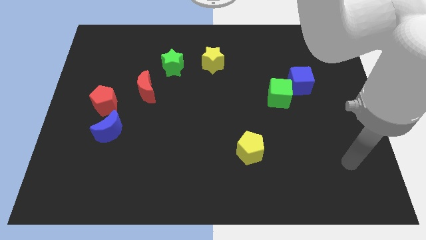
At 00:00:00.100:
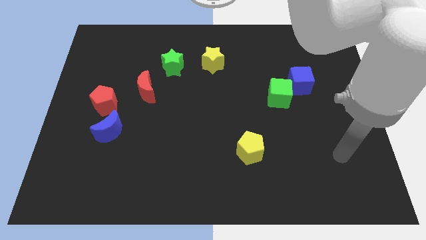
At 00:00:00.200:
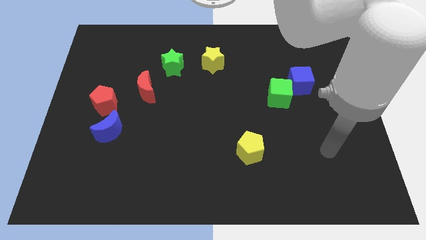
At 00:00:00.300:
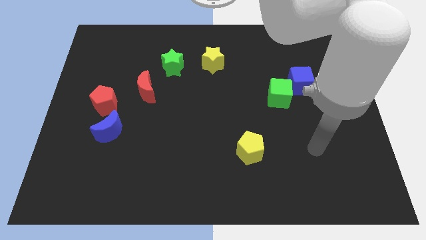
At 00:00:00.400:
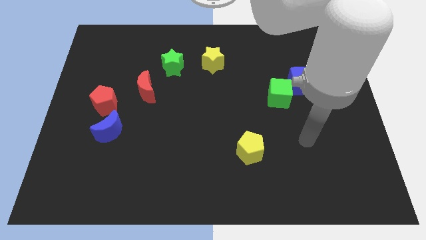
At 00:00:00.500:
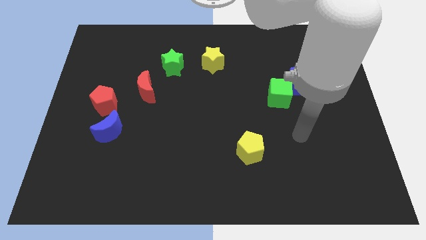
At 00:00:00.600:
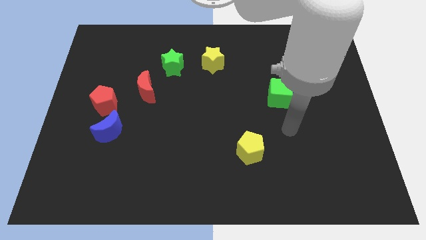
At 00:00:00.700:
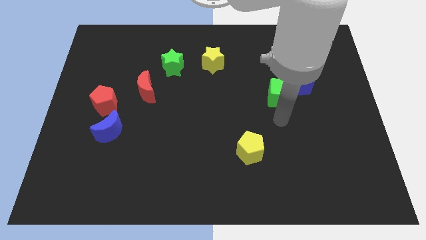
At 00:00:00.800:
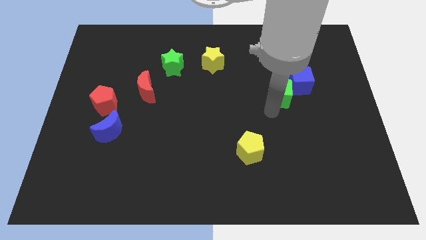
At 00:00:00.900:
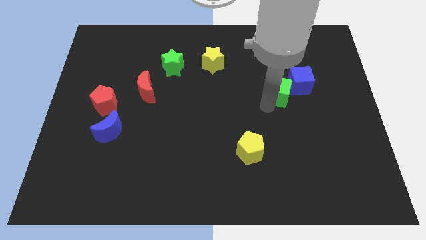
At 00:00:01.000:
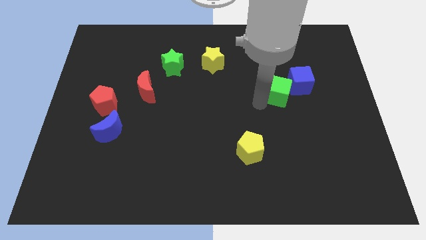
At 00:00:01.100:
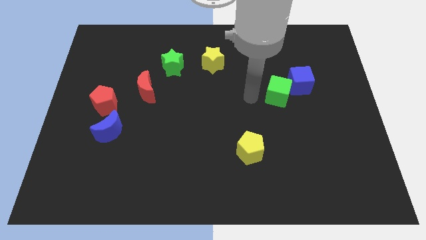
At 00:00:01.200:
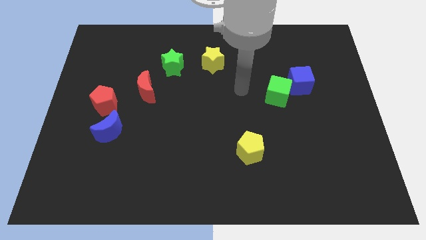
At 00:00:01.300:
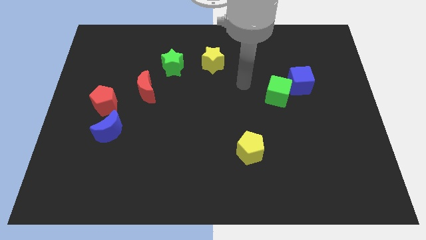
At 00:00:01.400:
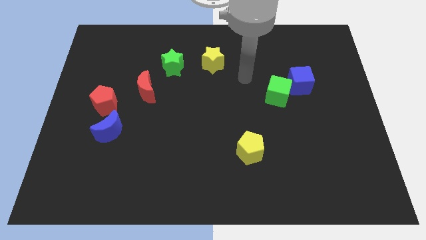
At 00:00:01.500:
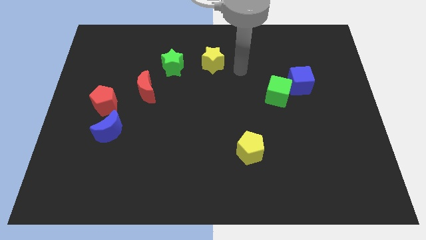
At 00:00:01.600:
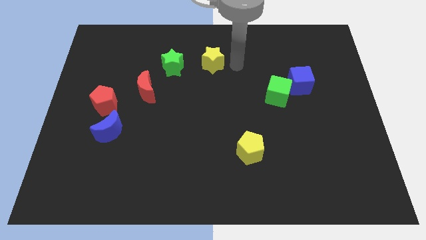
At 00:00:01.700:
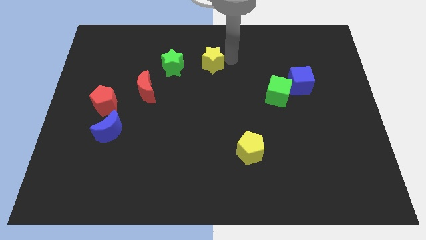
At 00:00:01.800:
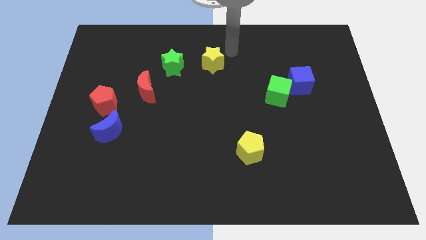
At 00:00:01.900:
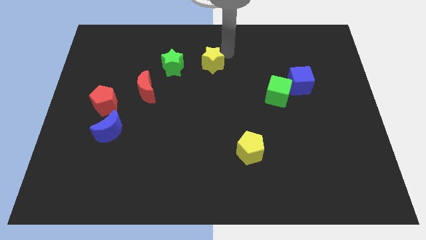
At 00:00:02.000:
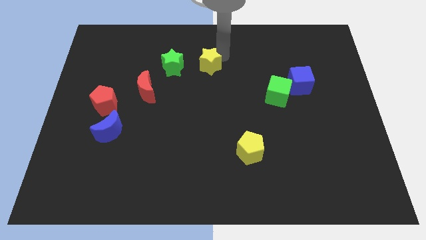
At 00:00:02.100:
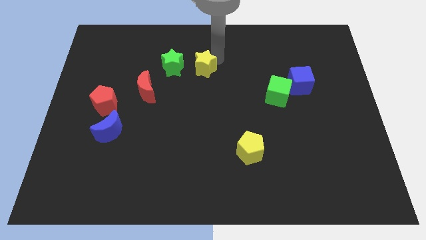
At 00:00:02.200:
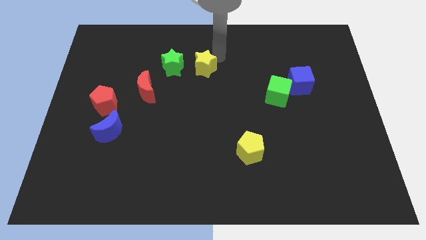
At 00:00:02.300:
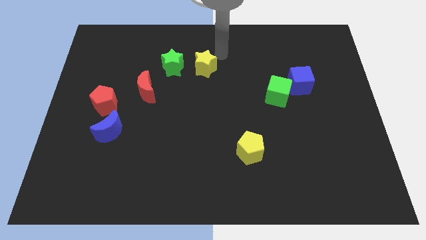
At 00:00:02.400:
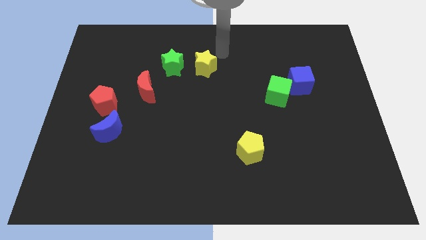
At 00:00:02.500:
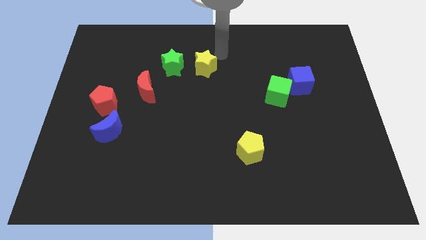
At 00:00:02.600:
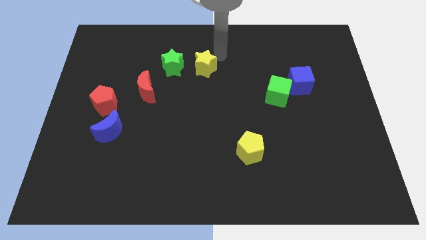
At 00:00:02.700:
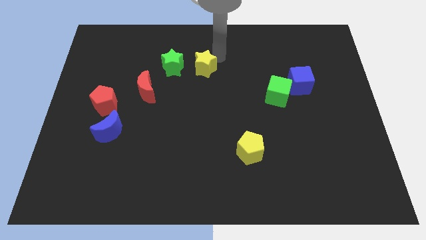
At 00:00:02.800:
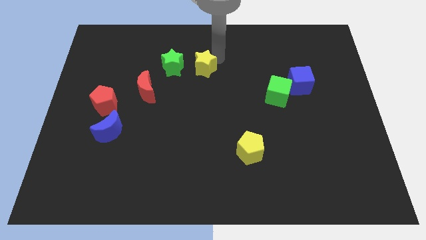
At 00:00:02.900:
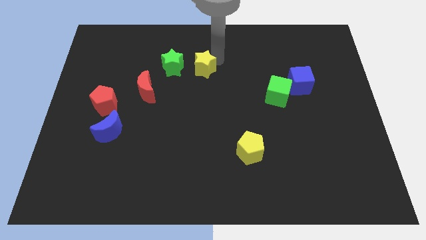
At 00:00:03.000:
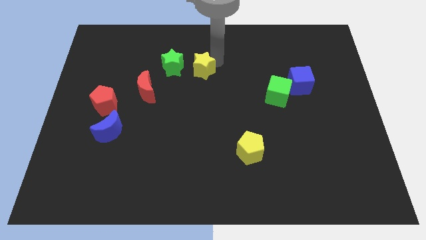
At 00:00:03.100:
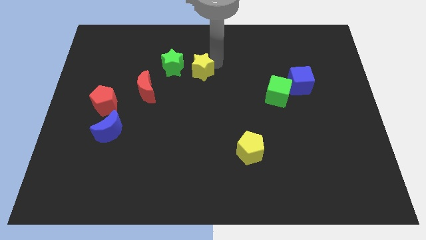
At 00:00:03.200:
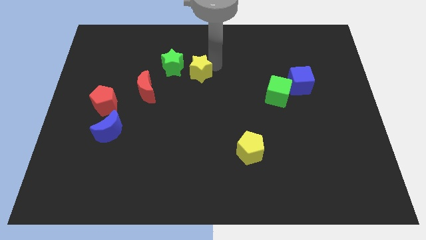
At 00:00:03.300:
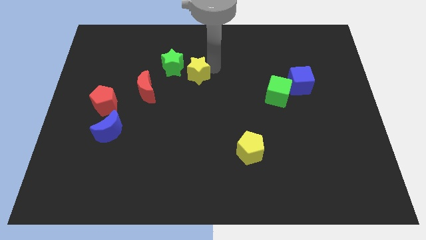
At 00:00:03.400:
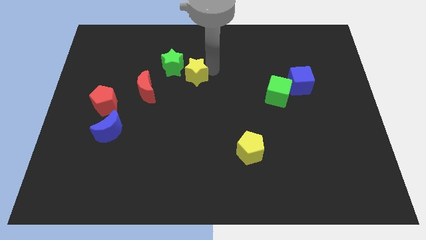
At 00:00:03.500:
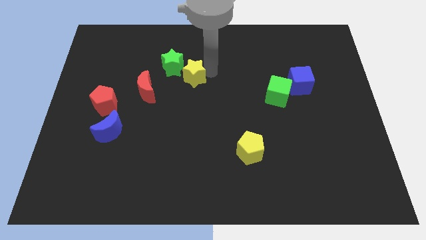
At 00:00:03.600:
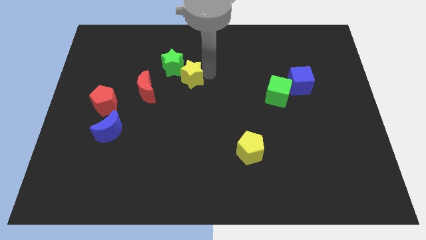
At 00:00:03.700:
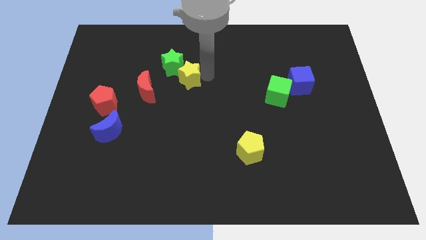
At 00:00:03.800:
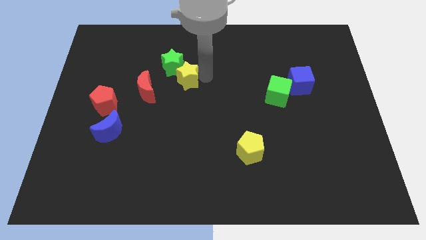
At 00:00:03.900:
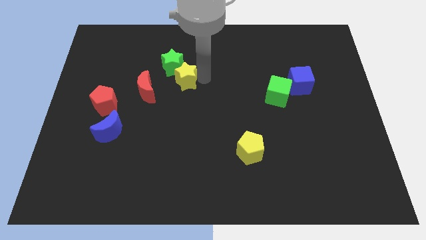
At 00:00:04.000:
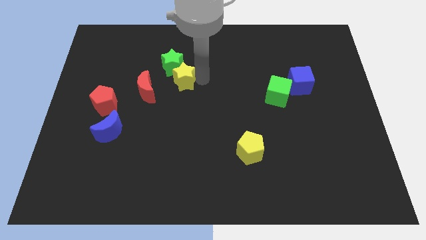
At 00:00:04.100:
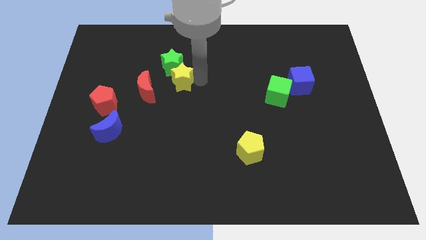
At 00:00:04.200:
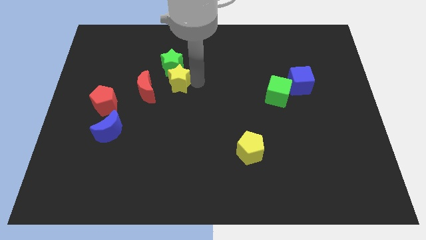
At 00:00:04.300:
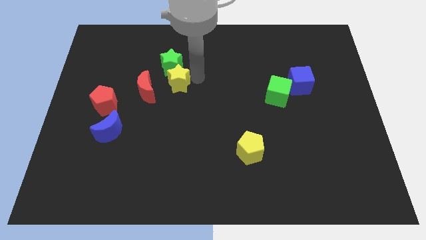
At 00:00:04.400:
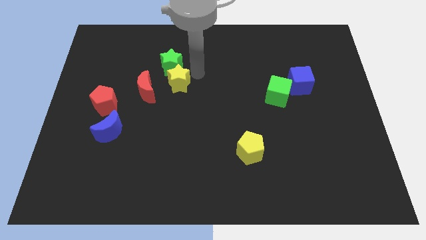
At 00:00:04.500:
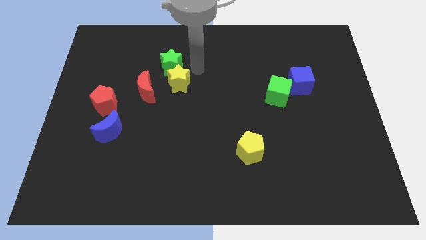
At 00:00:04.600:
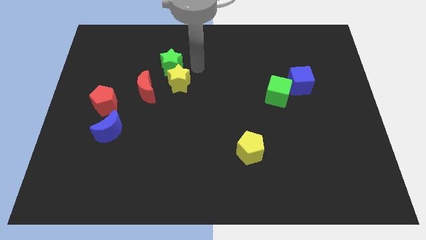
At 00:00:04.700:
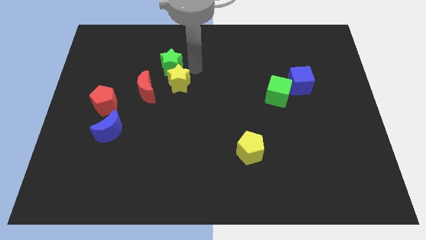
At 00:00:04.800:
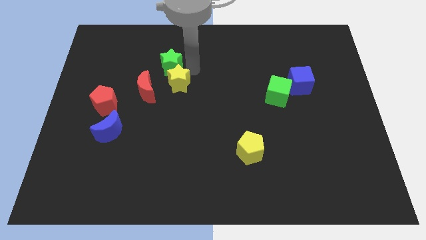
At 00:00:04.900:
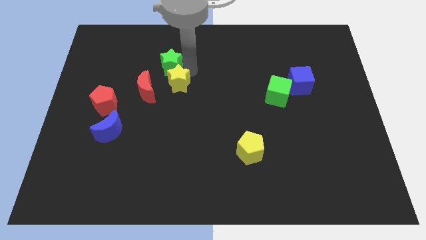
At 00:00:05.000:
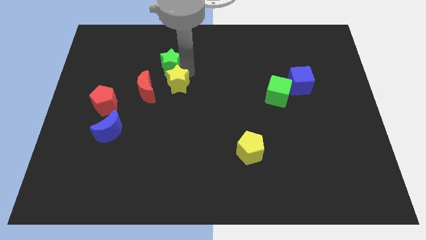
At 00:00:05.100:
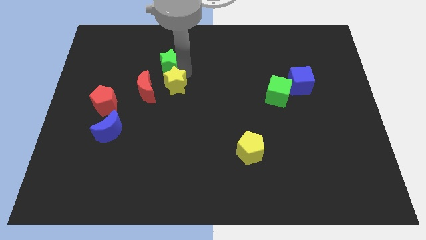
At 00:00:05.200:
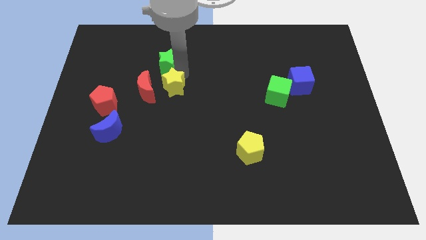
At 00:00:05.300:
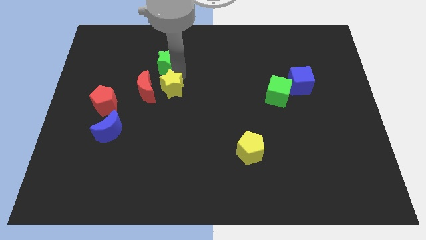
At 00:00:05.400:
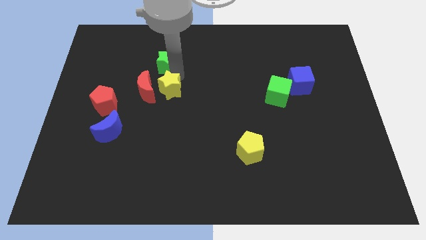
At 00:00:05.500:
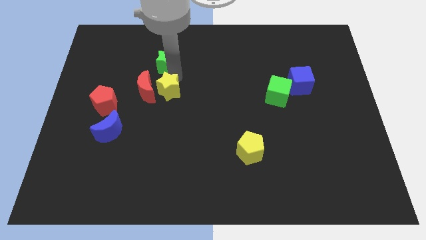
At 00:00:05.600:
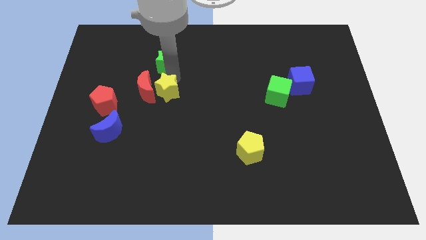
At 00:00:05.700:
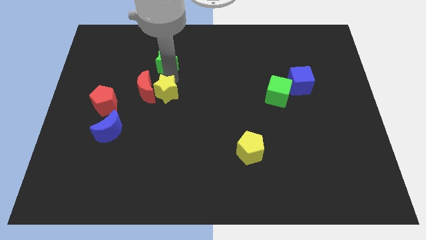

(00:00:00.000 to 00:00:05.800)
put the yellow star to the right side of the red pentagon
